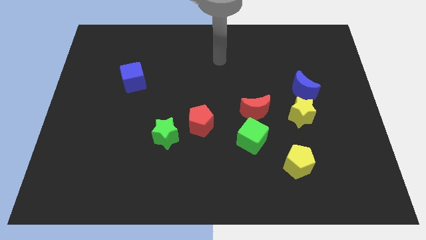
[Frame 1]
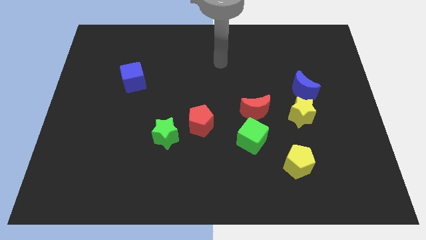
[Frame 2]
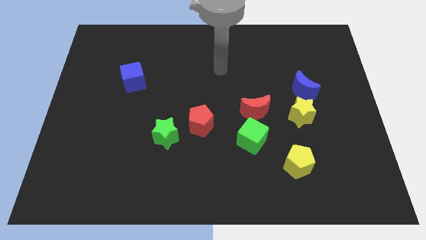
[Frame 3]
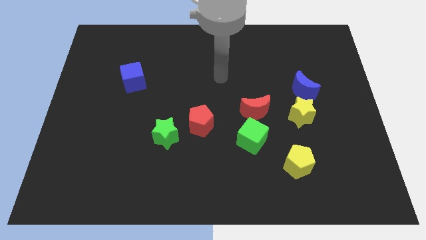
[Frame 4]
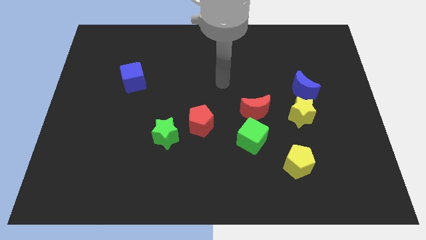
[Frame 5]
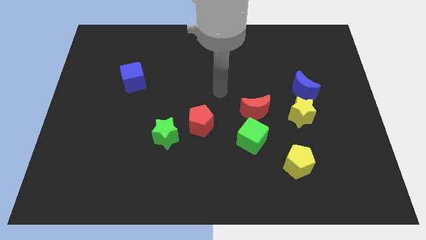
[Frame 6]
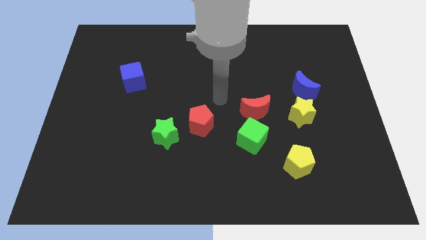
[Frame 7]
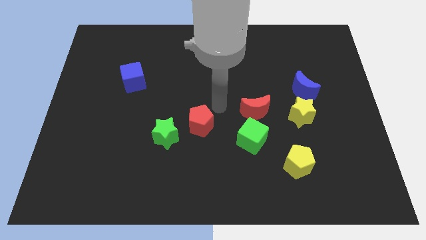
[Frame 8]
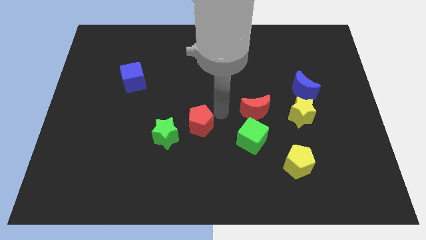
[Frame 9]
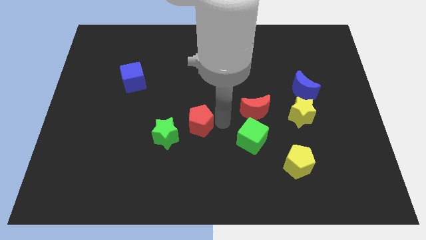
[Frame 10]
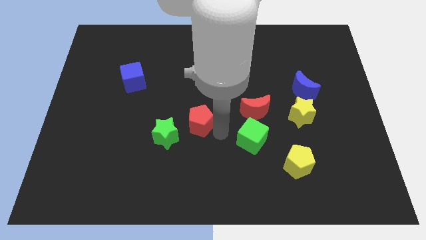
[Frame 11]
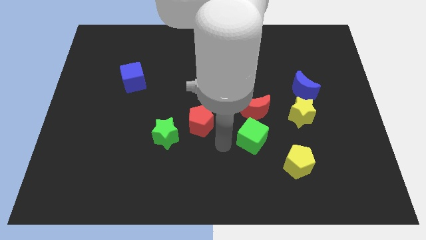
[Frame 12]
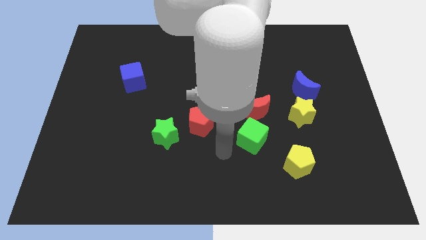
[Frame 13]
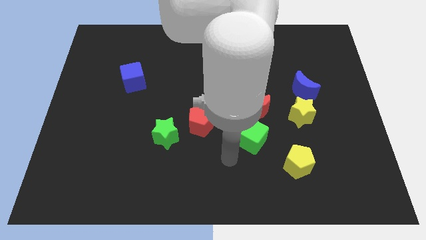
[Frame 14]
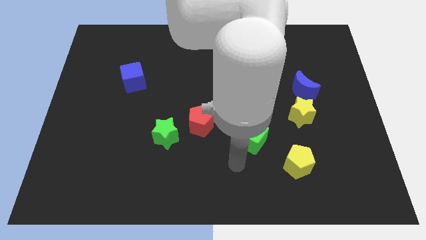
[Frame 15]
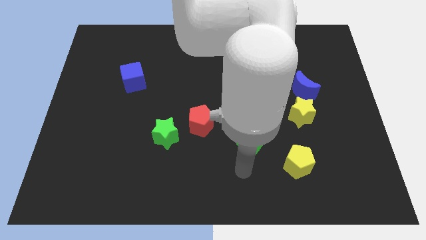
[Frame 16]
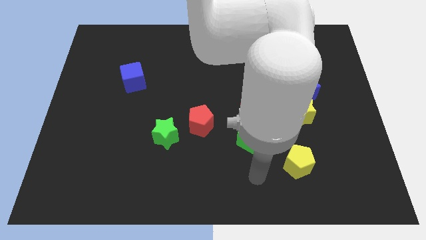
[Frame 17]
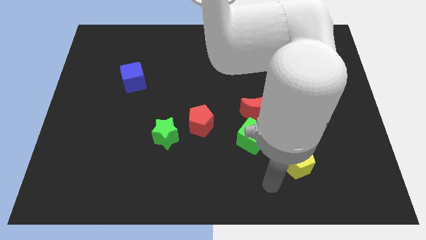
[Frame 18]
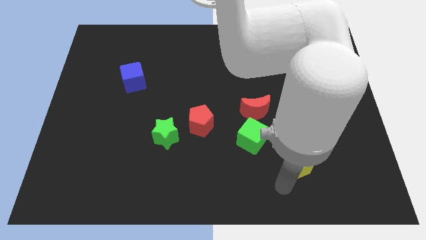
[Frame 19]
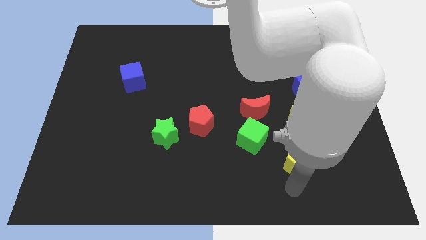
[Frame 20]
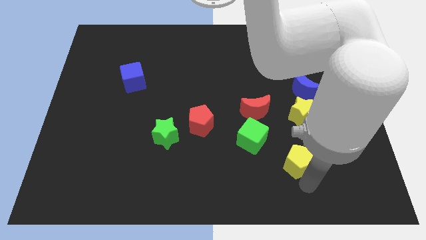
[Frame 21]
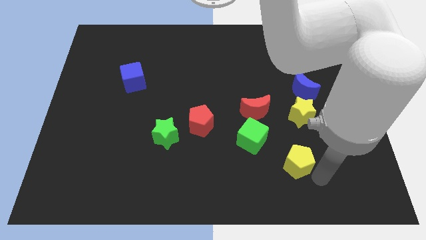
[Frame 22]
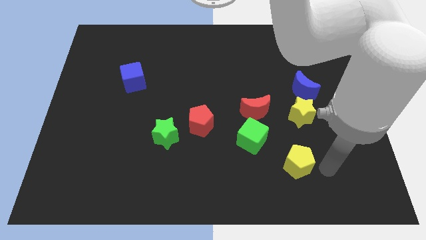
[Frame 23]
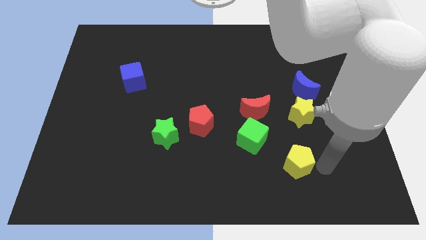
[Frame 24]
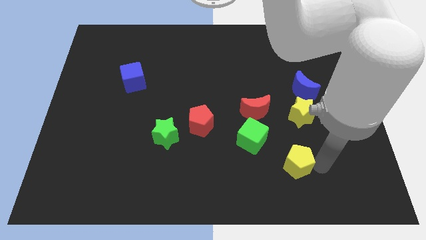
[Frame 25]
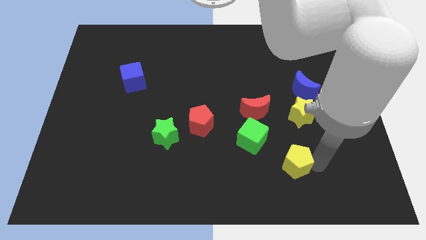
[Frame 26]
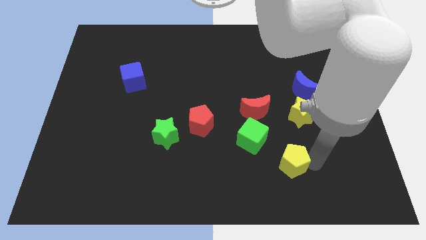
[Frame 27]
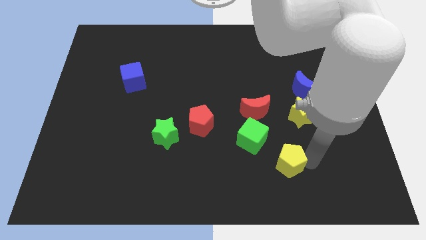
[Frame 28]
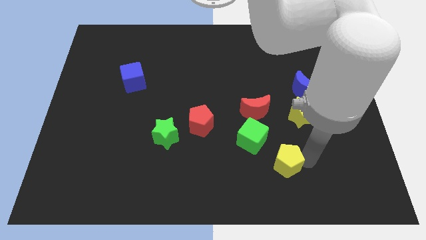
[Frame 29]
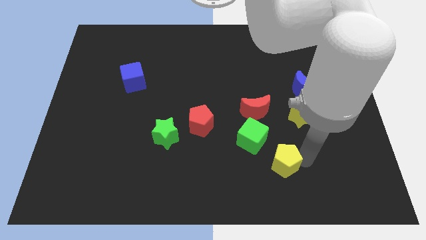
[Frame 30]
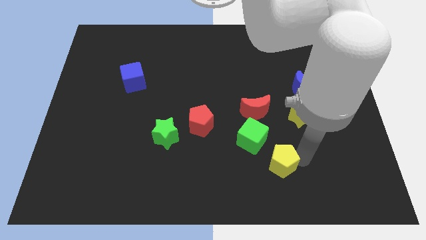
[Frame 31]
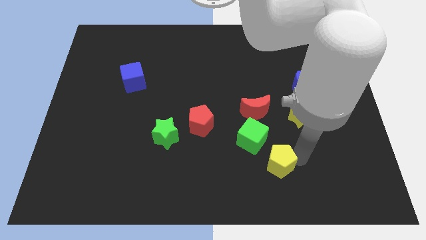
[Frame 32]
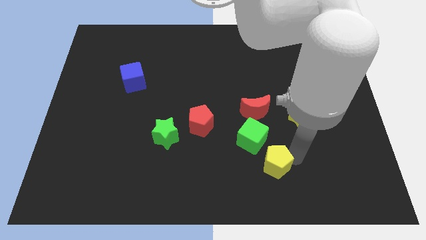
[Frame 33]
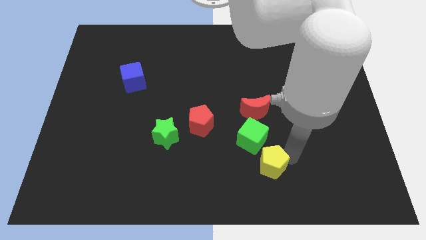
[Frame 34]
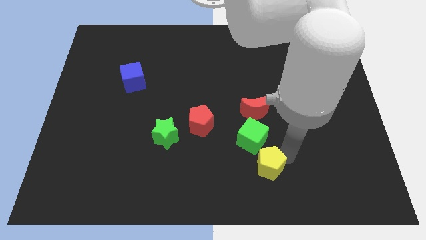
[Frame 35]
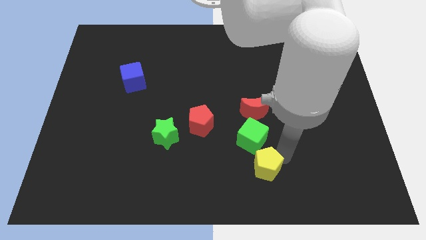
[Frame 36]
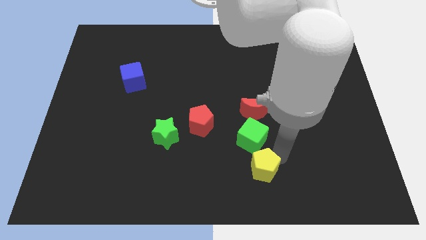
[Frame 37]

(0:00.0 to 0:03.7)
slightly slide the yellow pentagon left

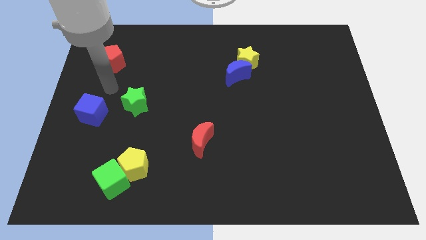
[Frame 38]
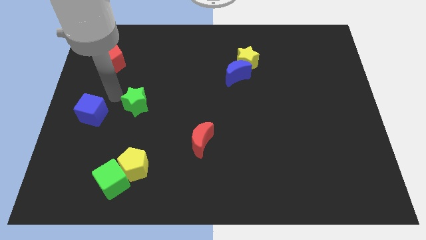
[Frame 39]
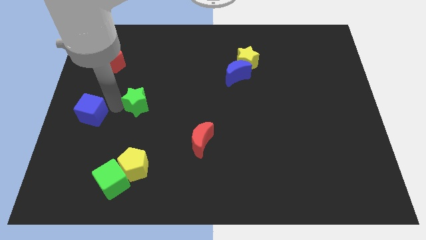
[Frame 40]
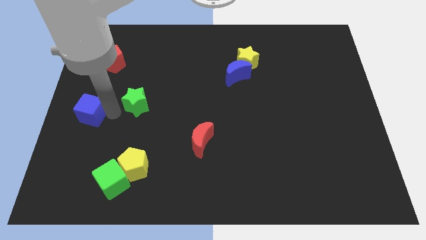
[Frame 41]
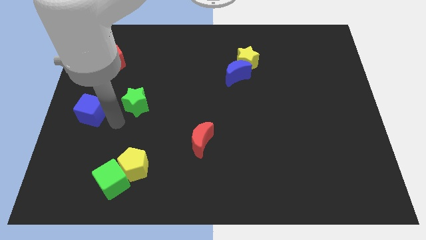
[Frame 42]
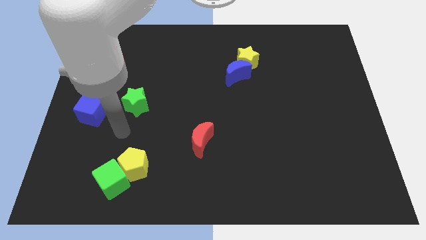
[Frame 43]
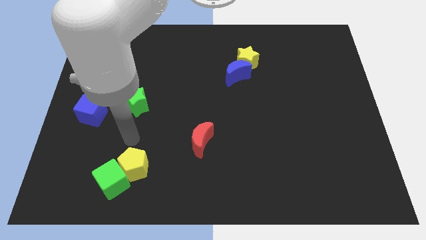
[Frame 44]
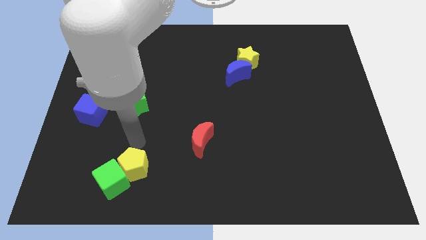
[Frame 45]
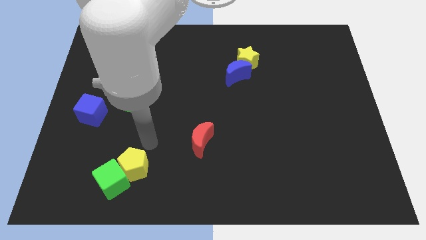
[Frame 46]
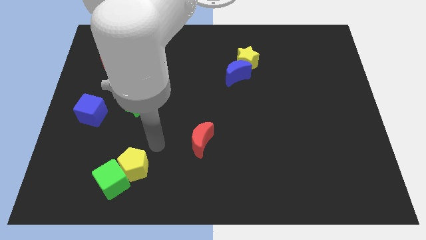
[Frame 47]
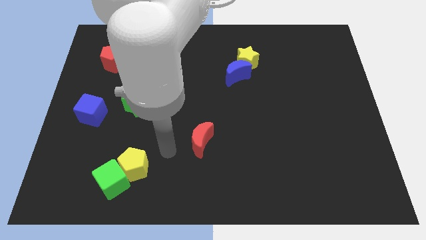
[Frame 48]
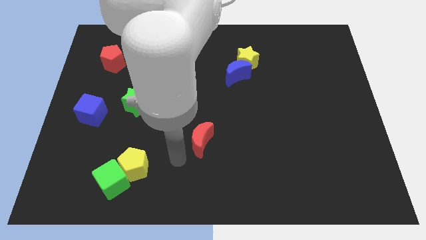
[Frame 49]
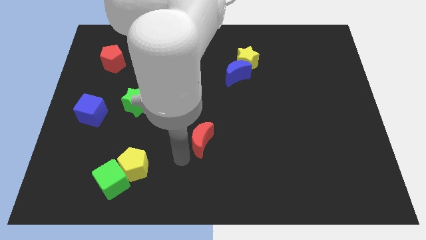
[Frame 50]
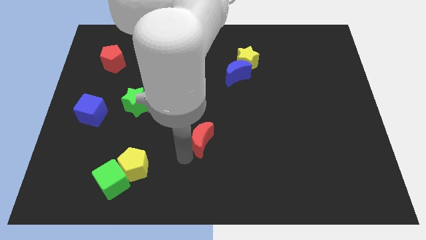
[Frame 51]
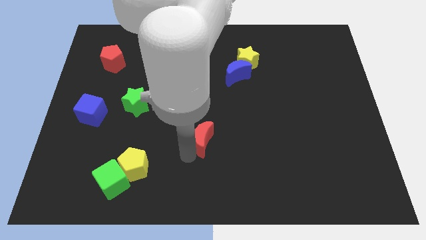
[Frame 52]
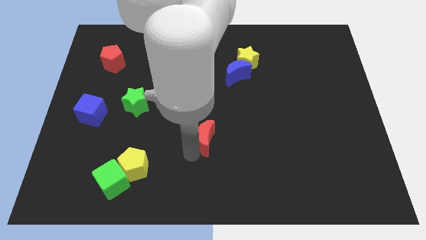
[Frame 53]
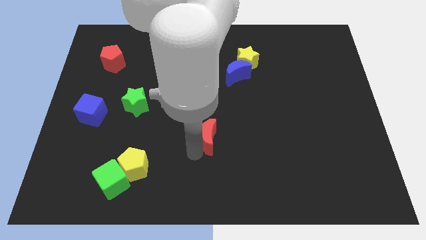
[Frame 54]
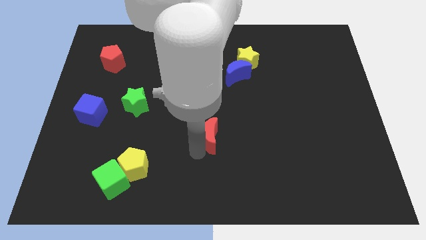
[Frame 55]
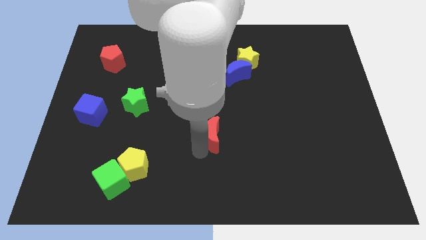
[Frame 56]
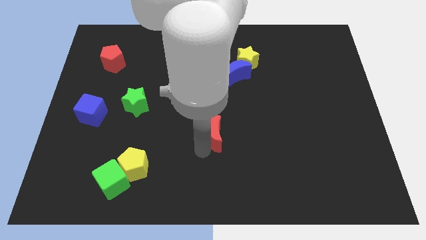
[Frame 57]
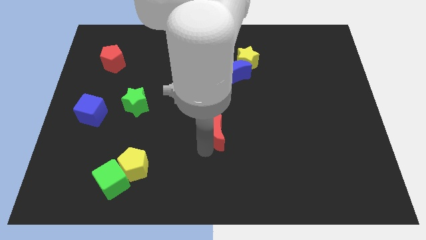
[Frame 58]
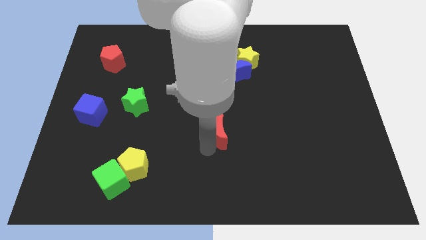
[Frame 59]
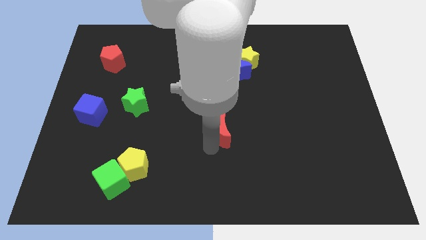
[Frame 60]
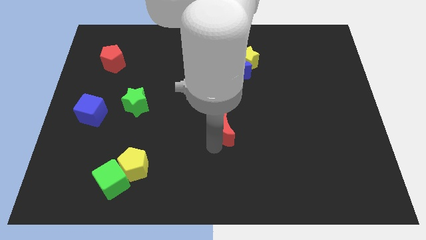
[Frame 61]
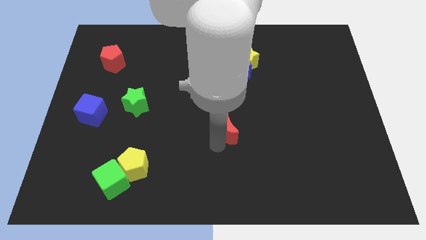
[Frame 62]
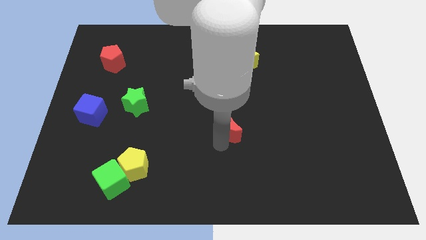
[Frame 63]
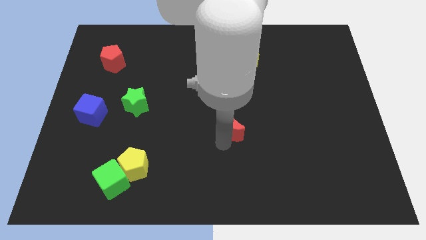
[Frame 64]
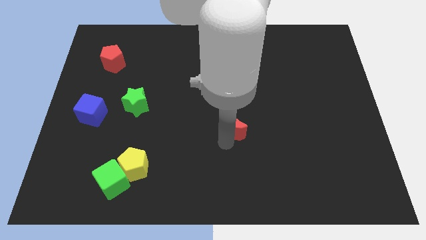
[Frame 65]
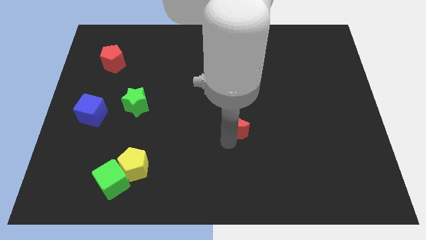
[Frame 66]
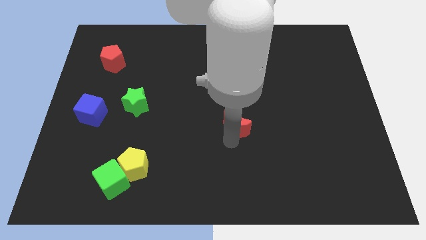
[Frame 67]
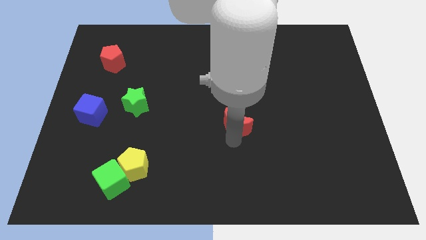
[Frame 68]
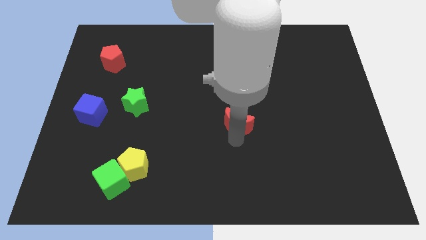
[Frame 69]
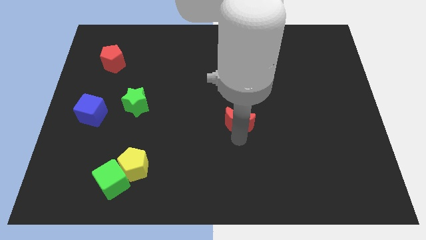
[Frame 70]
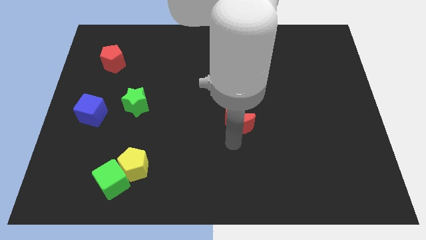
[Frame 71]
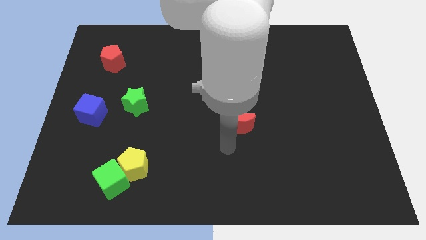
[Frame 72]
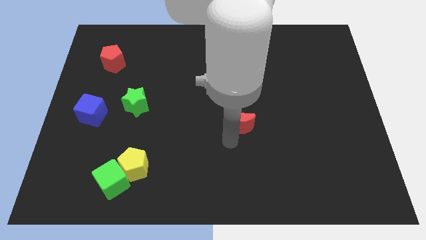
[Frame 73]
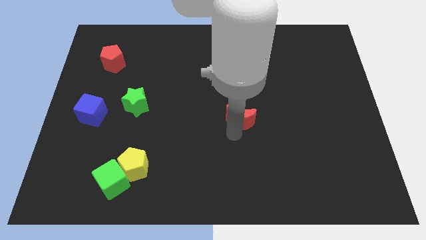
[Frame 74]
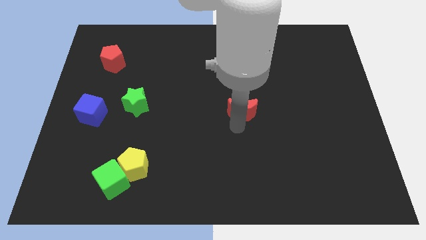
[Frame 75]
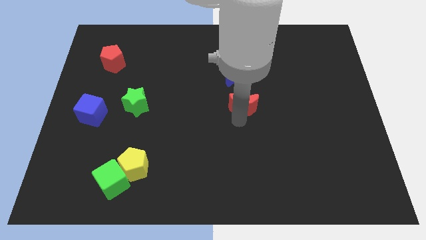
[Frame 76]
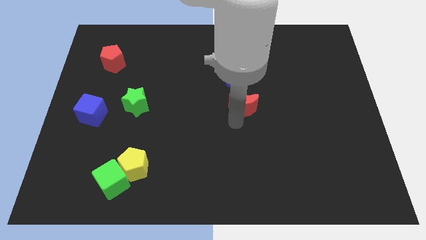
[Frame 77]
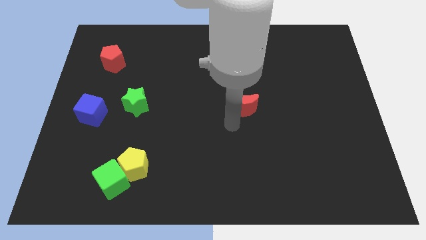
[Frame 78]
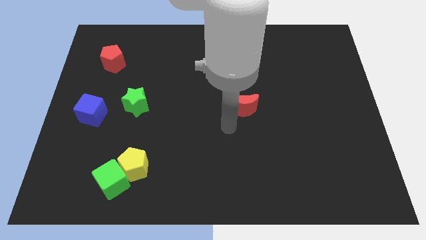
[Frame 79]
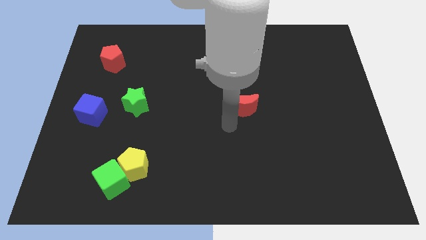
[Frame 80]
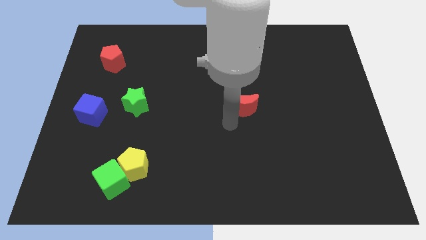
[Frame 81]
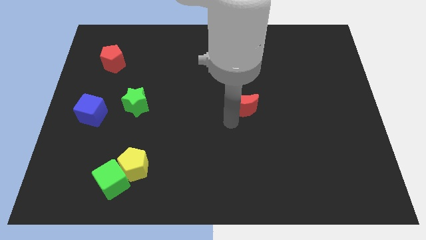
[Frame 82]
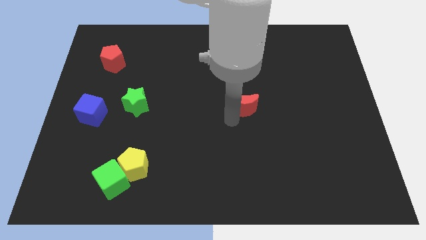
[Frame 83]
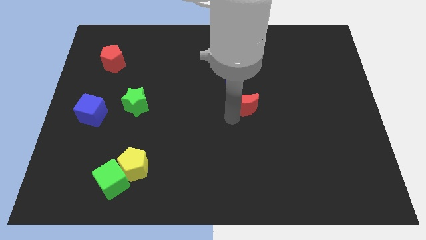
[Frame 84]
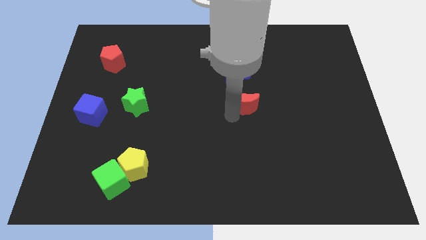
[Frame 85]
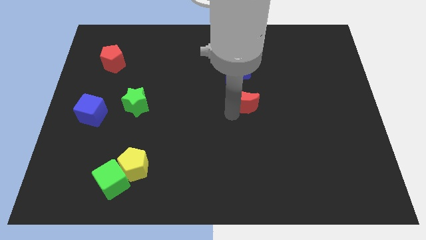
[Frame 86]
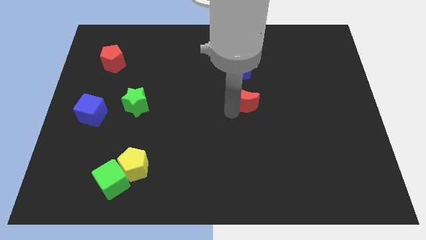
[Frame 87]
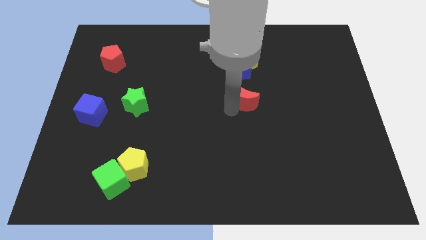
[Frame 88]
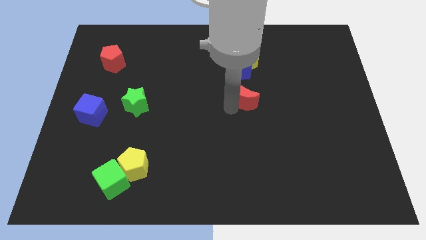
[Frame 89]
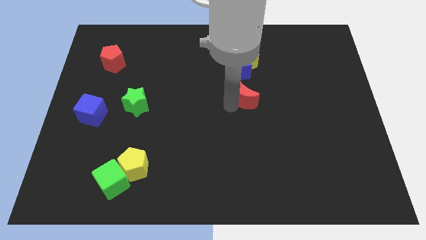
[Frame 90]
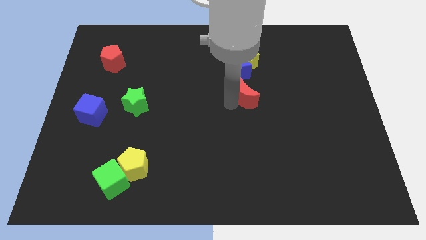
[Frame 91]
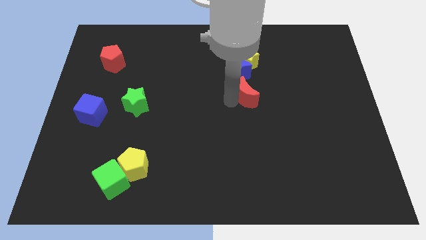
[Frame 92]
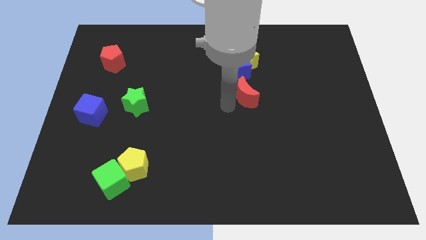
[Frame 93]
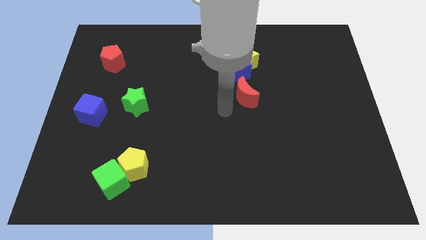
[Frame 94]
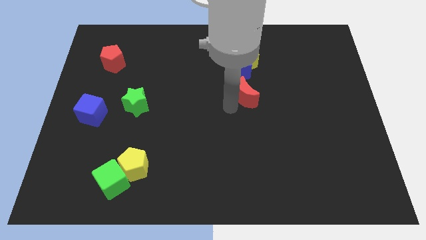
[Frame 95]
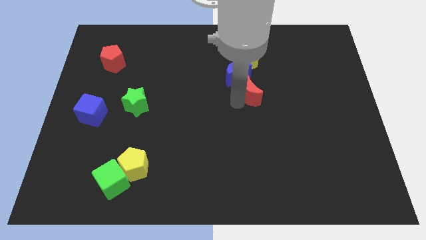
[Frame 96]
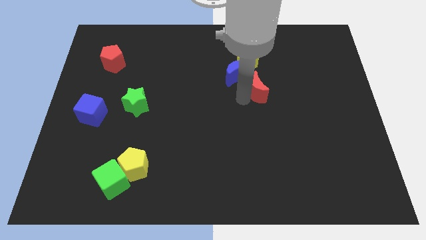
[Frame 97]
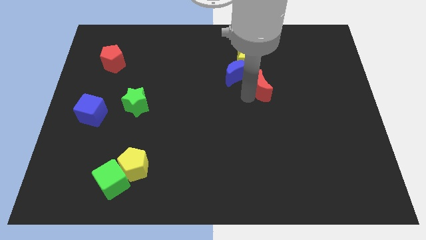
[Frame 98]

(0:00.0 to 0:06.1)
slide the red moon upwards and to the right diagonally
